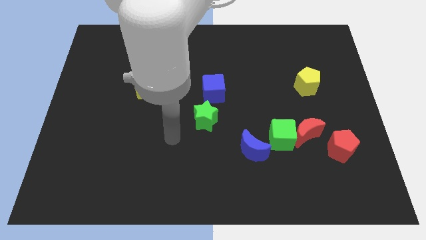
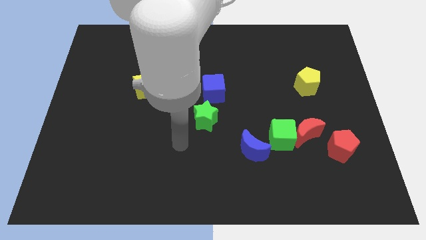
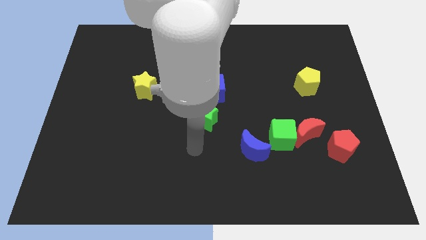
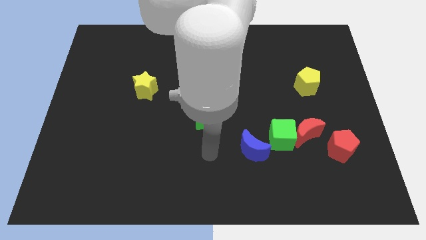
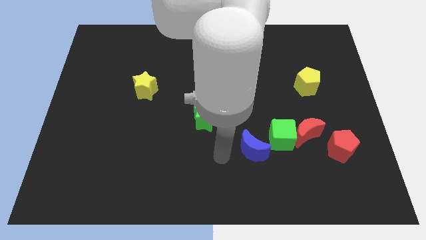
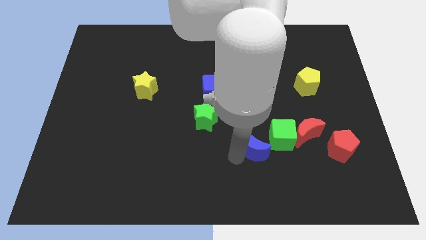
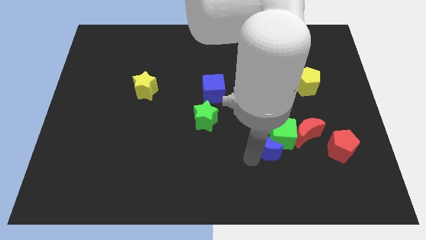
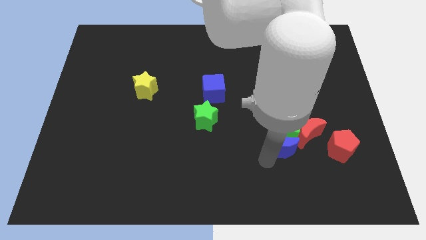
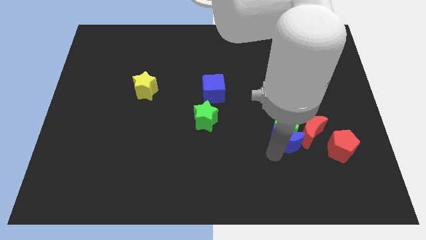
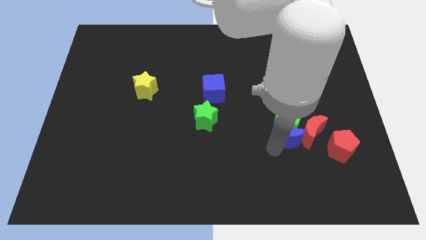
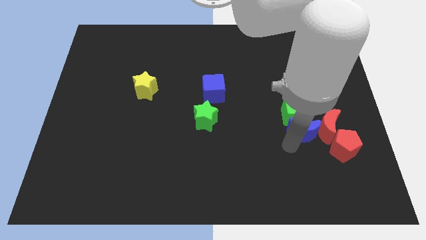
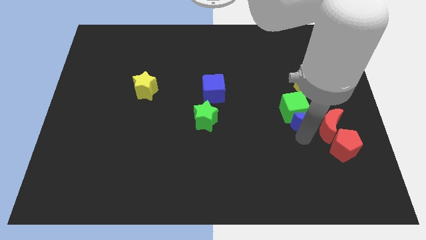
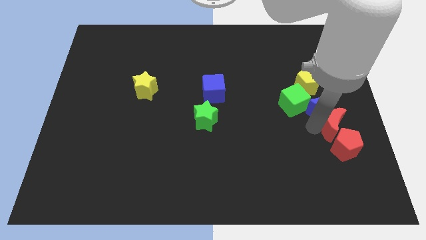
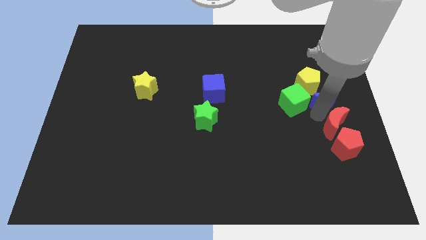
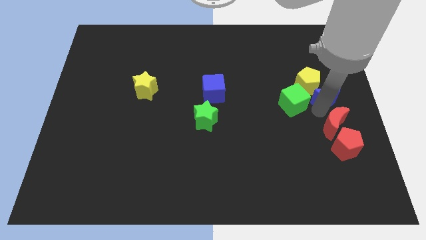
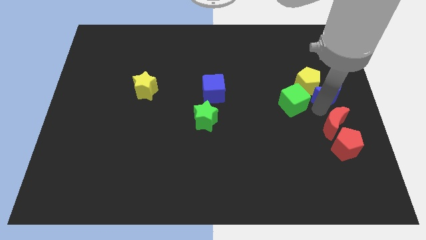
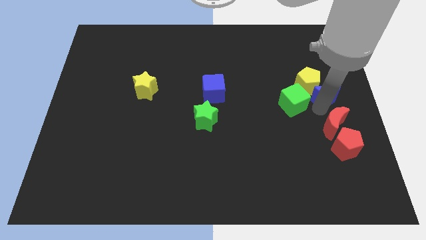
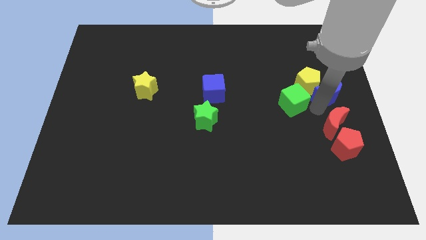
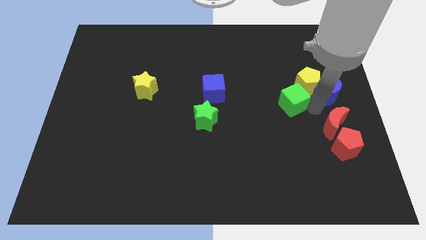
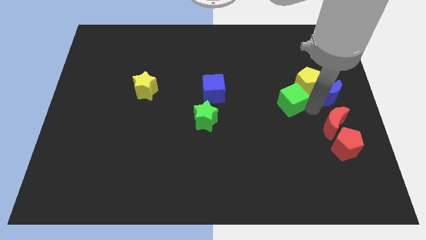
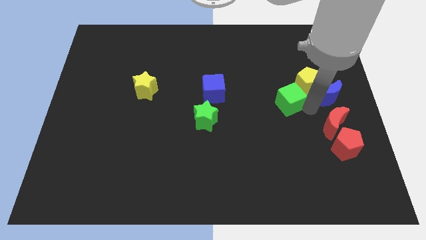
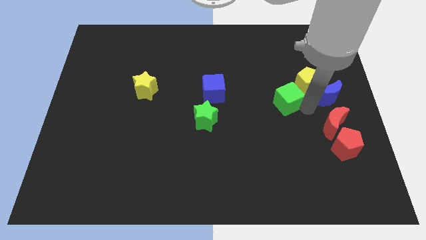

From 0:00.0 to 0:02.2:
pull the green cube apart from the red moon and blue moon

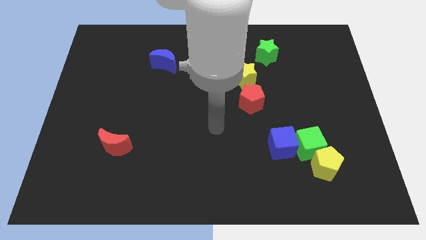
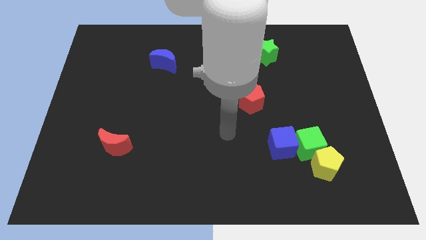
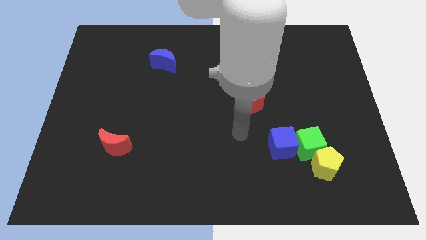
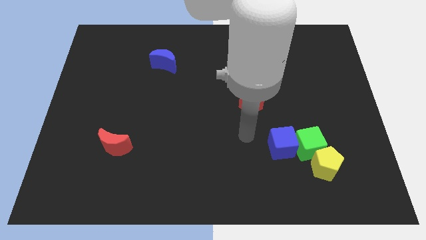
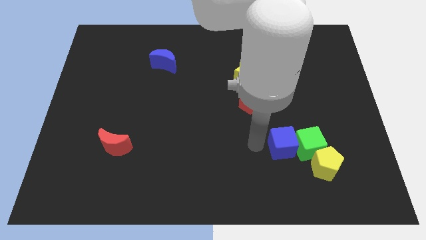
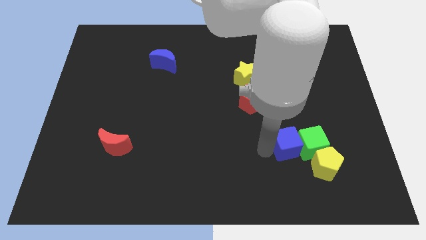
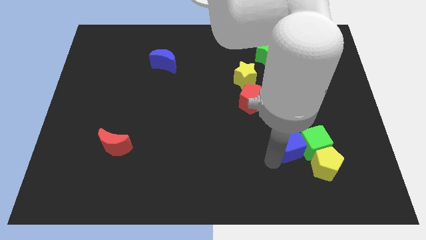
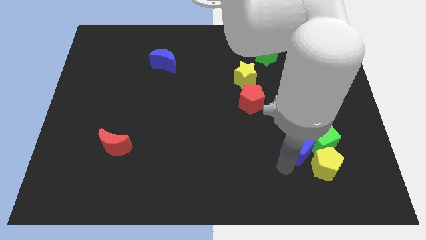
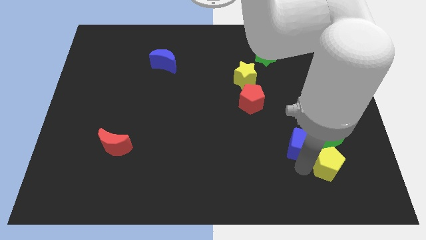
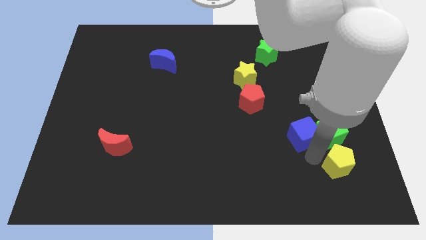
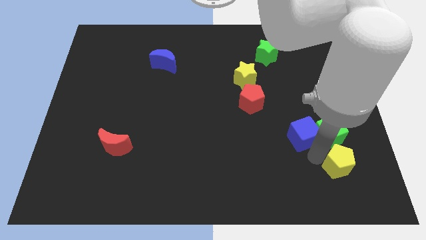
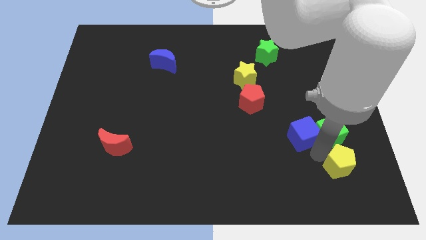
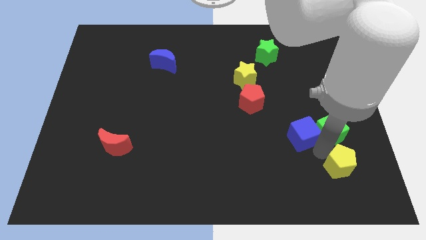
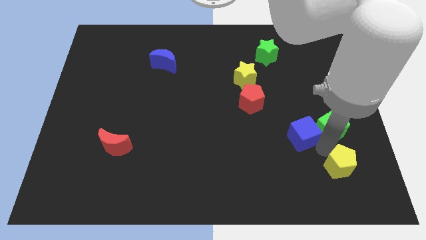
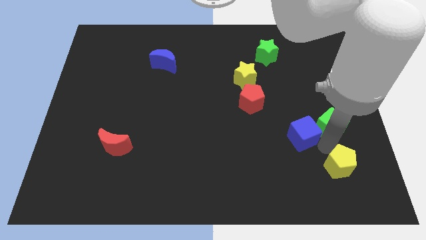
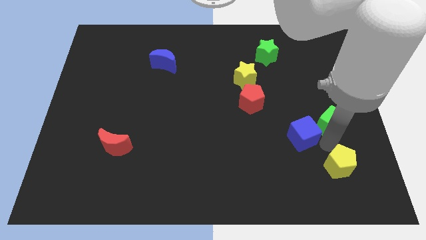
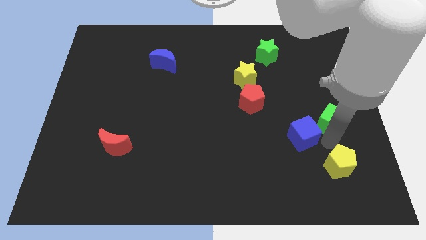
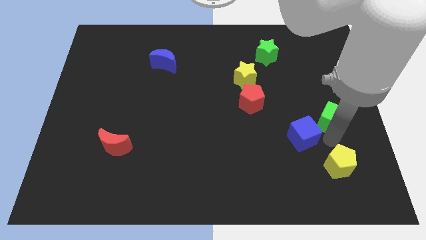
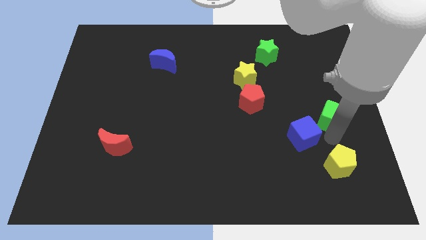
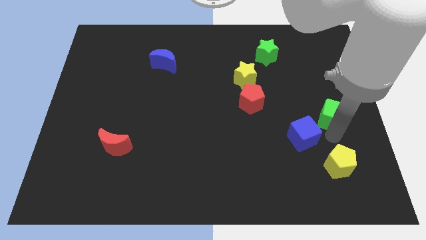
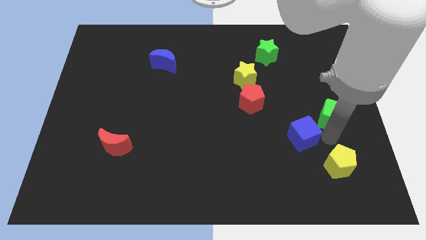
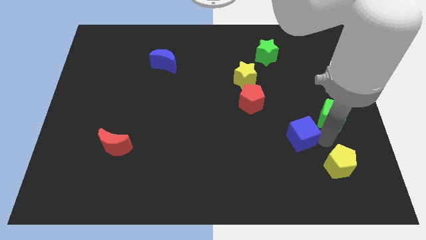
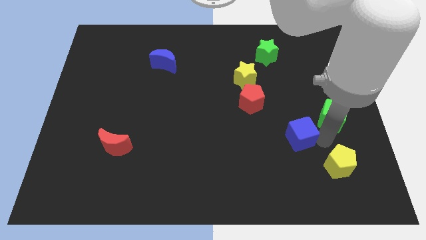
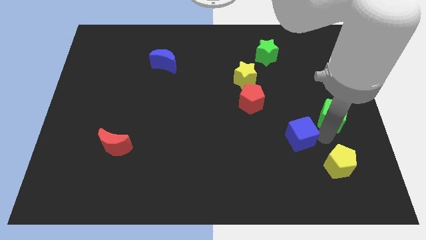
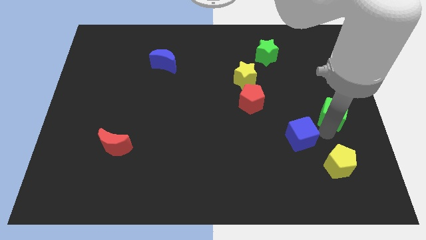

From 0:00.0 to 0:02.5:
pull the green cube apart from the yellow pentagon and blue cube

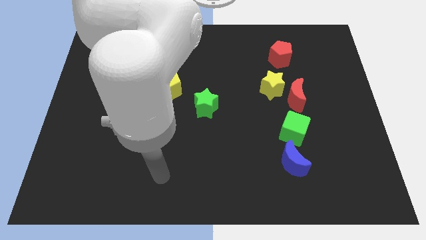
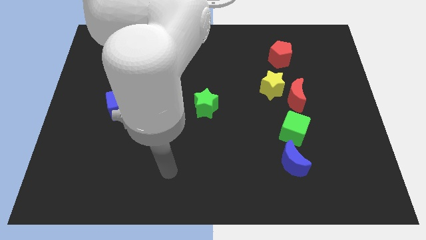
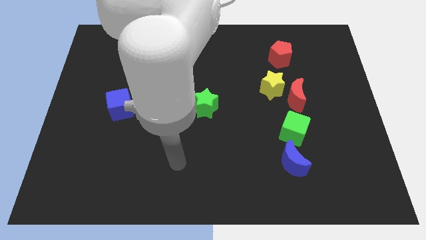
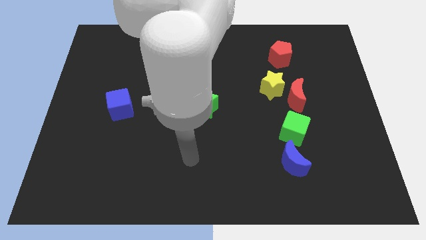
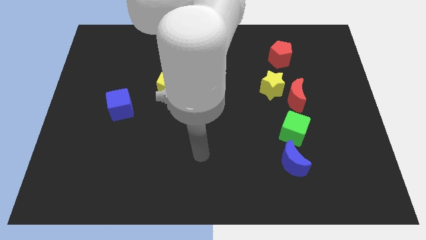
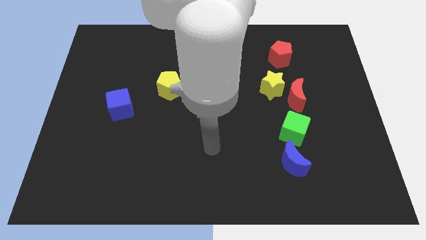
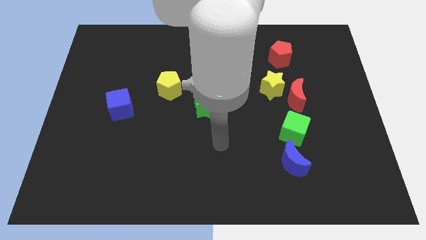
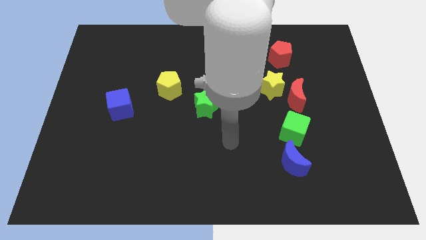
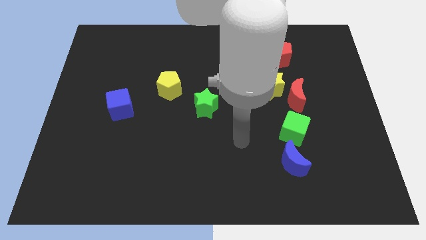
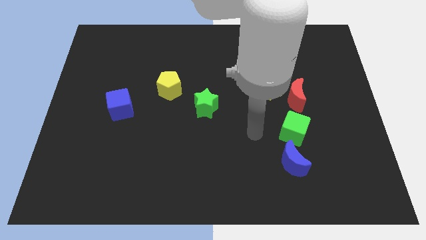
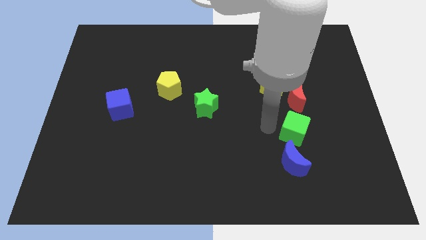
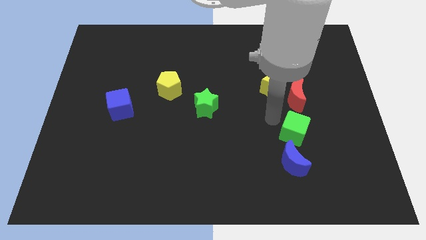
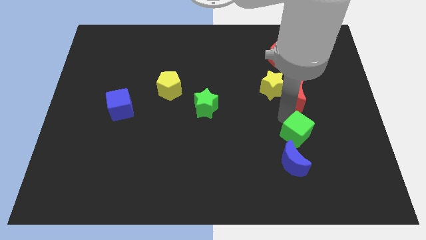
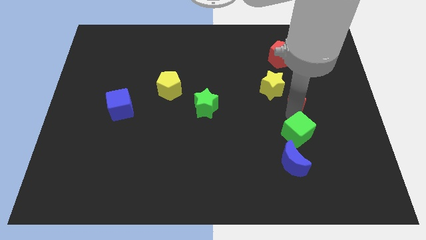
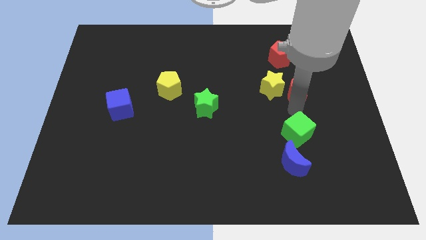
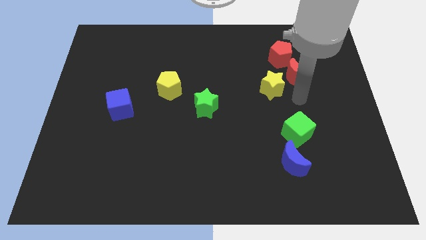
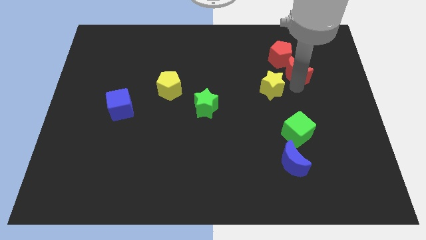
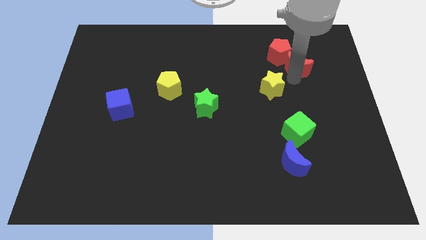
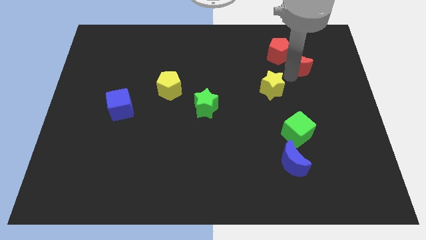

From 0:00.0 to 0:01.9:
pull the yellow star apart from the red moon

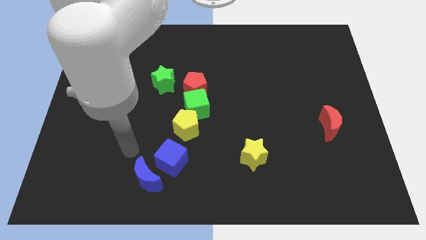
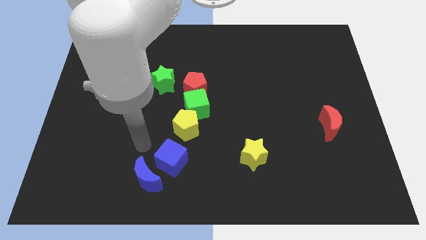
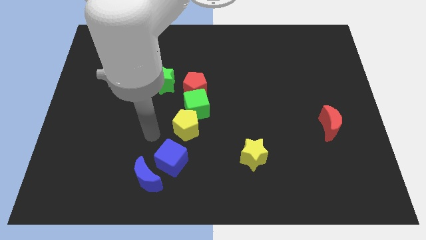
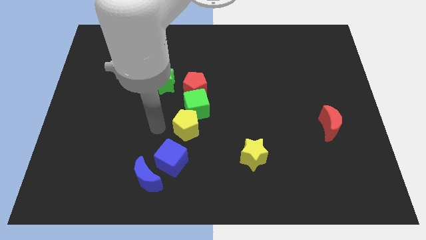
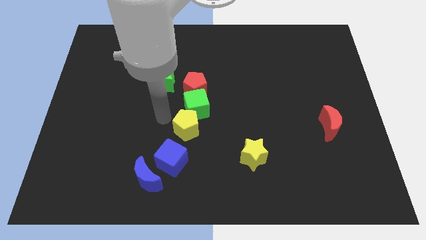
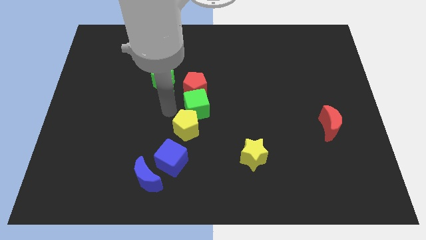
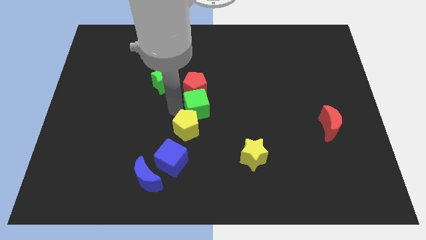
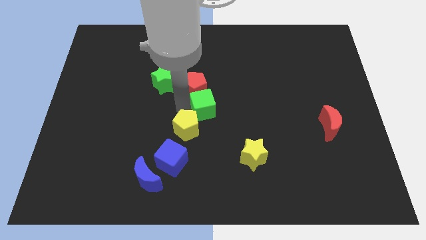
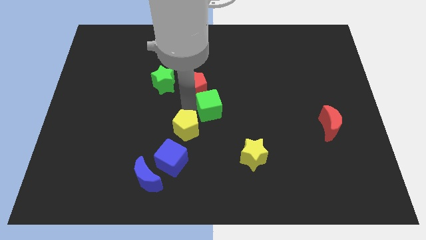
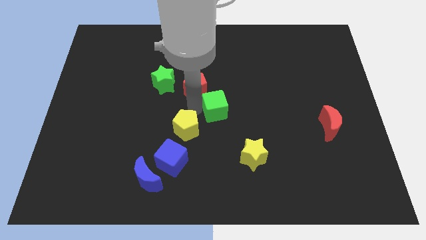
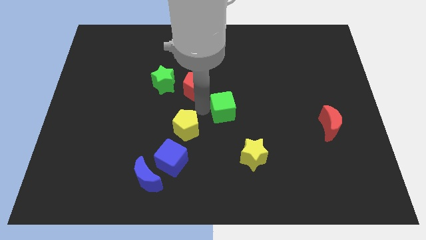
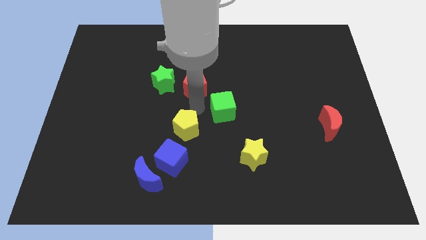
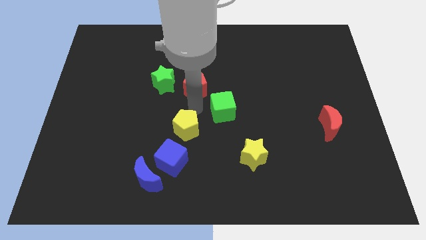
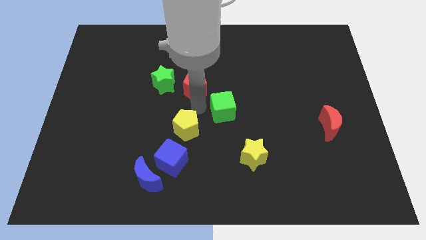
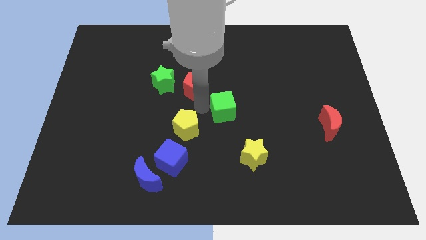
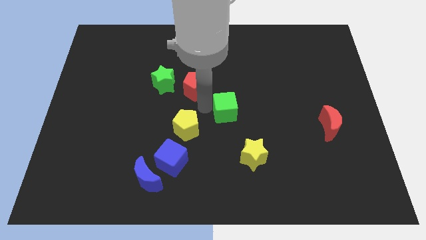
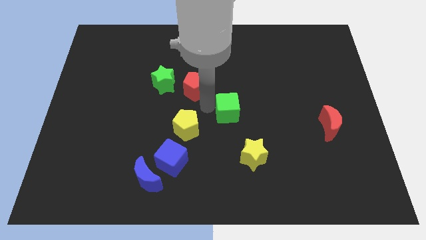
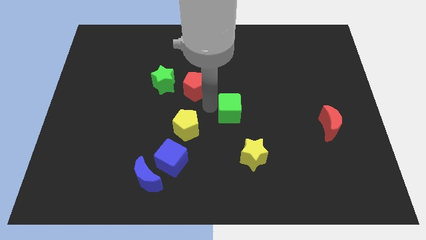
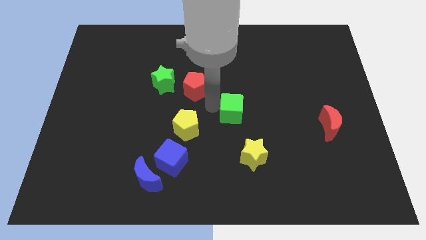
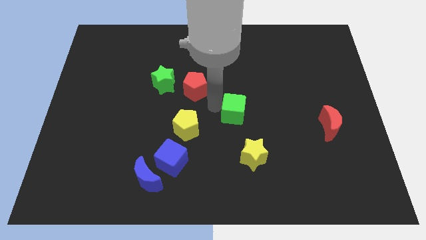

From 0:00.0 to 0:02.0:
pull the green cube apart from the red pentagon and yellow pentagon

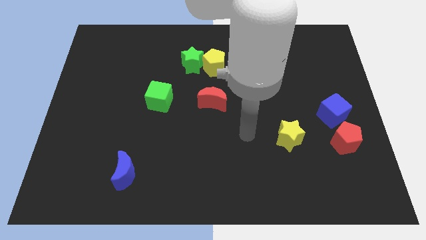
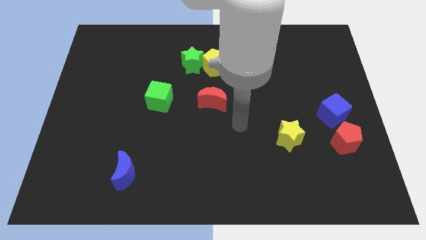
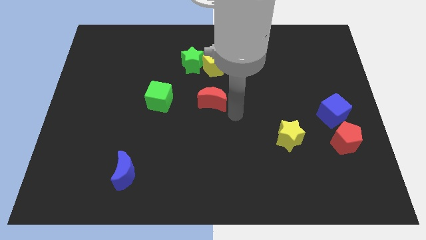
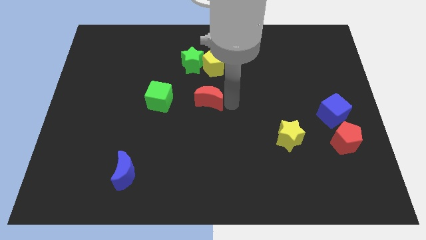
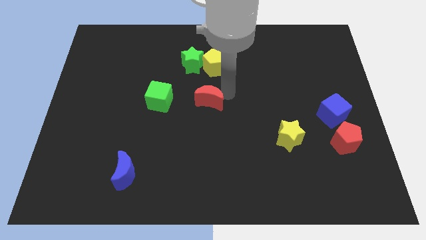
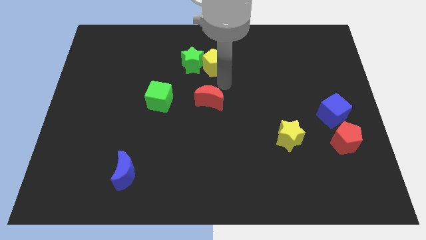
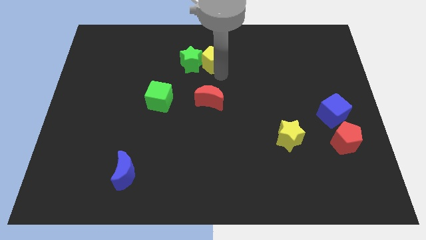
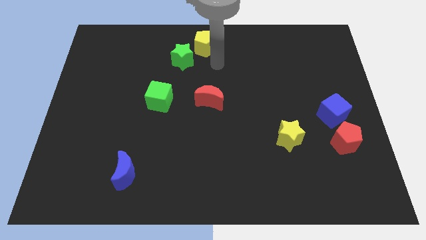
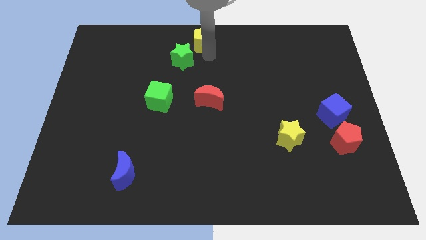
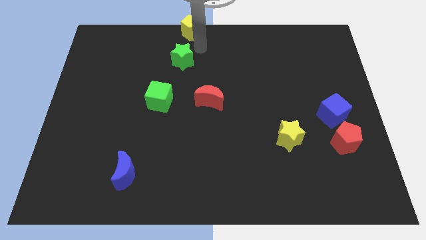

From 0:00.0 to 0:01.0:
pull the green star apart from the yellow pentagon
